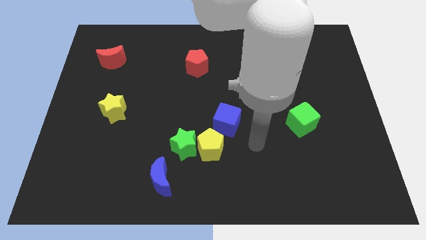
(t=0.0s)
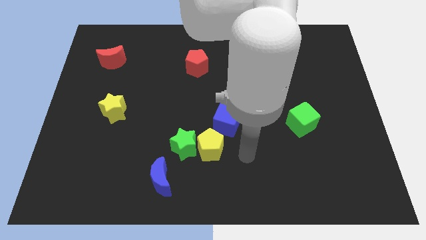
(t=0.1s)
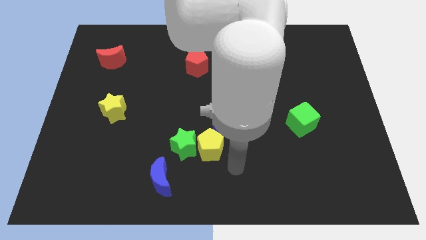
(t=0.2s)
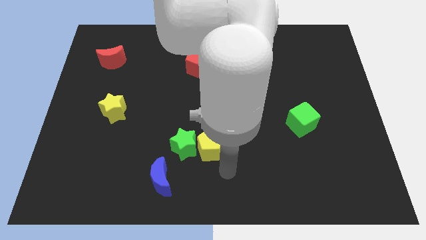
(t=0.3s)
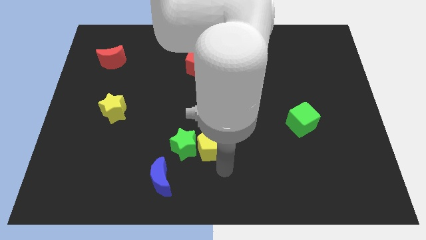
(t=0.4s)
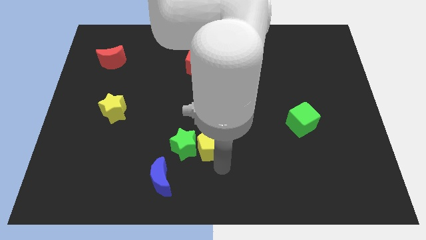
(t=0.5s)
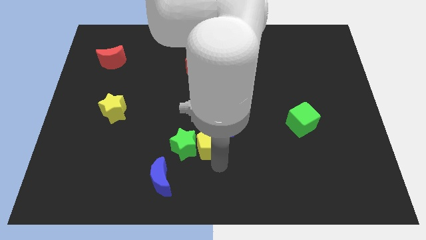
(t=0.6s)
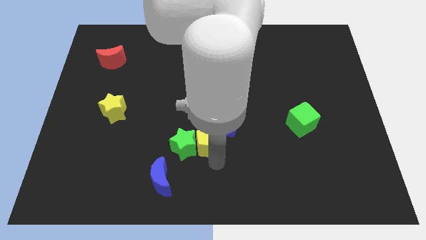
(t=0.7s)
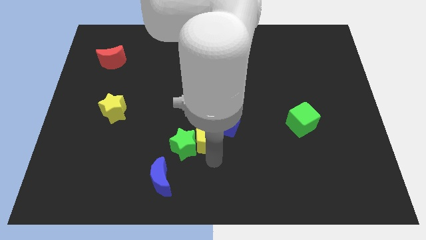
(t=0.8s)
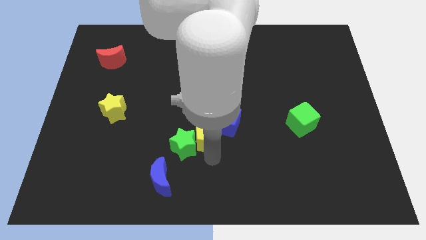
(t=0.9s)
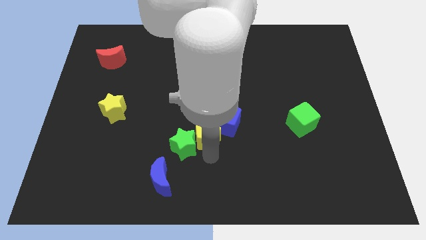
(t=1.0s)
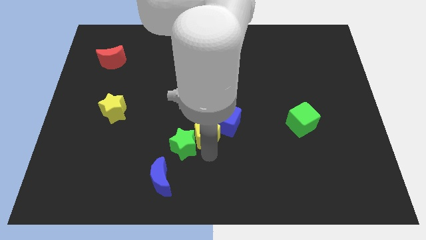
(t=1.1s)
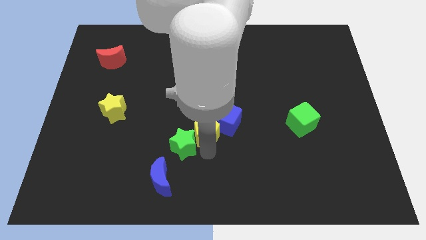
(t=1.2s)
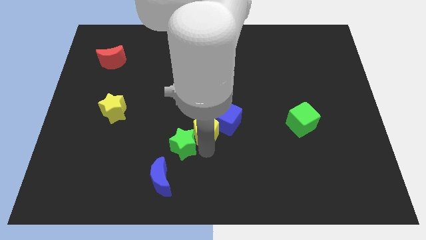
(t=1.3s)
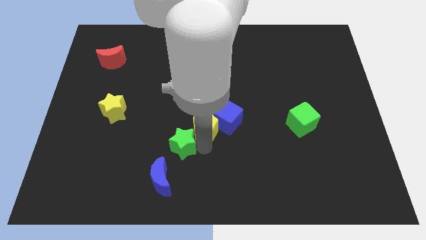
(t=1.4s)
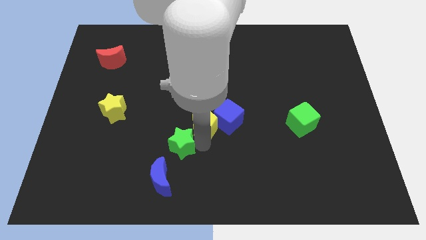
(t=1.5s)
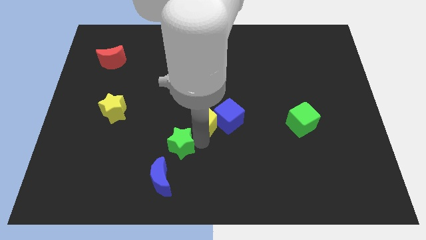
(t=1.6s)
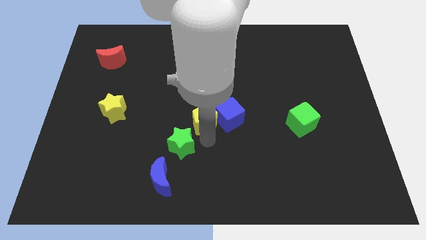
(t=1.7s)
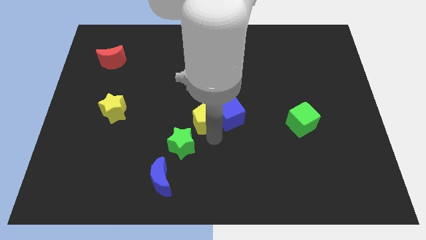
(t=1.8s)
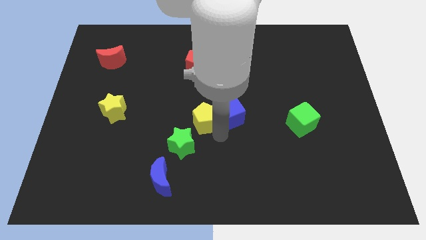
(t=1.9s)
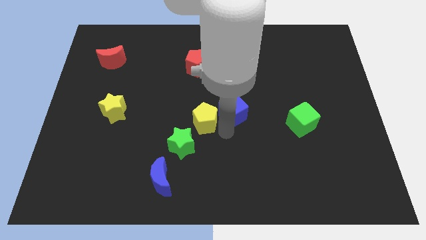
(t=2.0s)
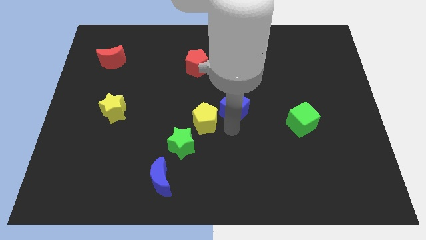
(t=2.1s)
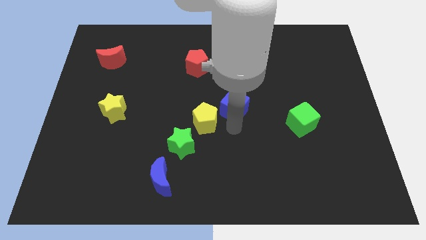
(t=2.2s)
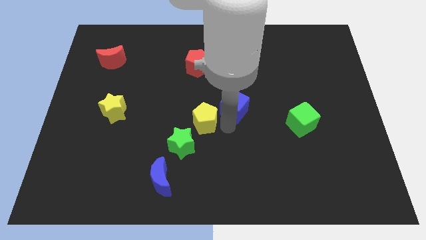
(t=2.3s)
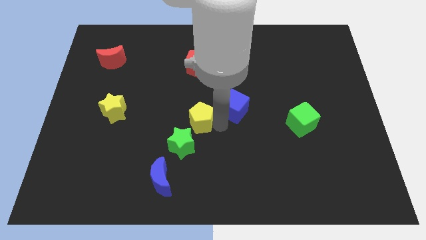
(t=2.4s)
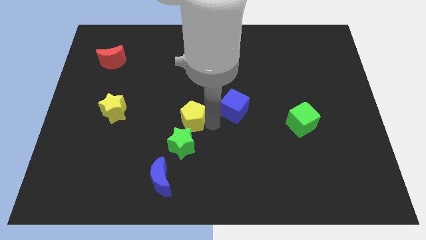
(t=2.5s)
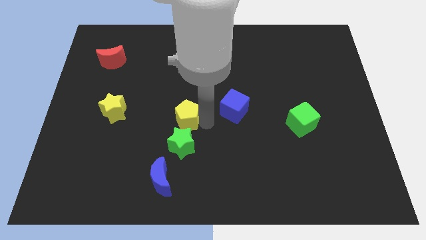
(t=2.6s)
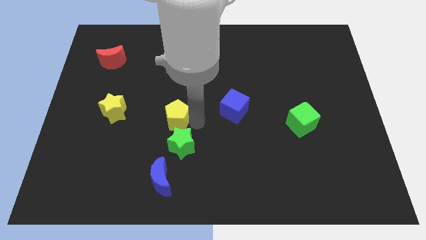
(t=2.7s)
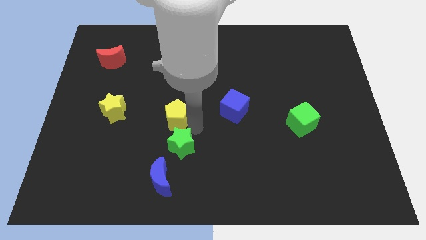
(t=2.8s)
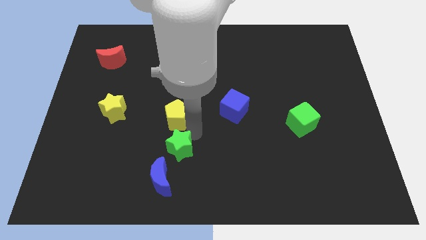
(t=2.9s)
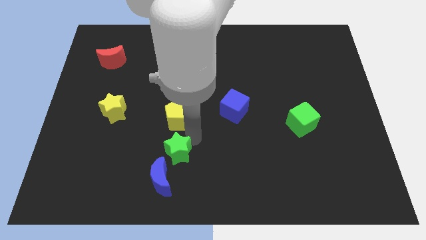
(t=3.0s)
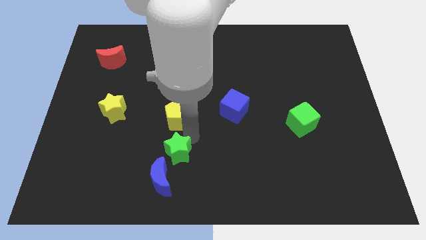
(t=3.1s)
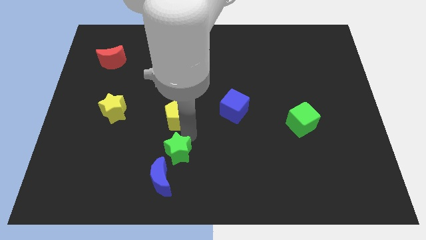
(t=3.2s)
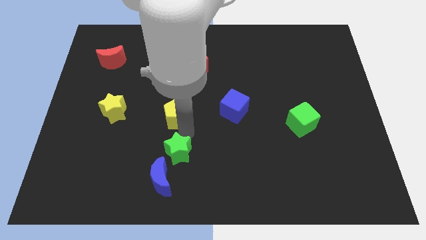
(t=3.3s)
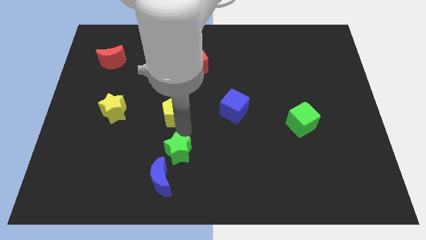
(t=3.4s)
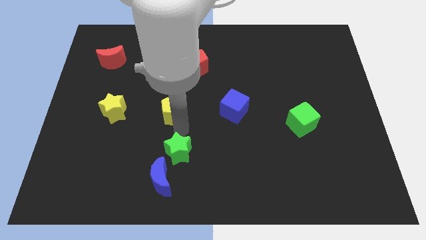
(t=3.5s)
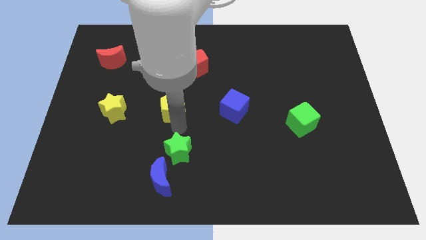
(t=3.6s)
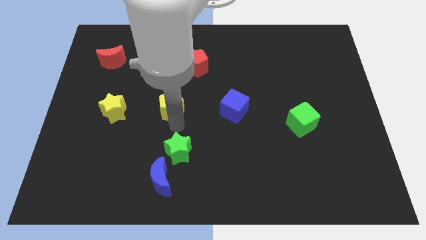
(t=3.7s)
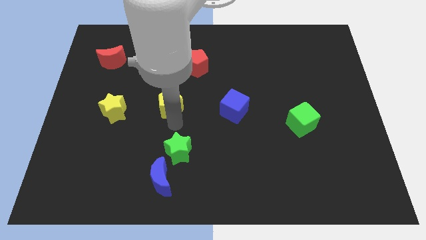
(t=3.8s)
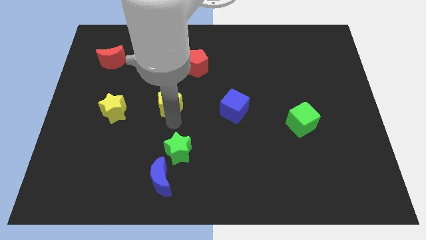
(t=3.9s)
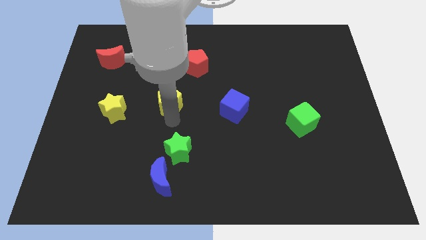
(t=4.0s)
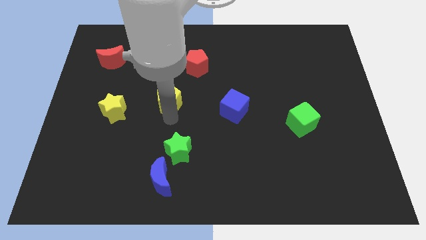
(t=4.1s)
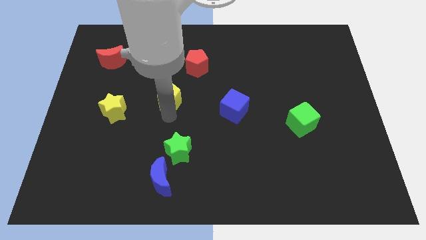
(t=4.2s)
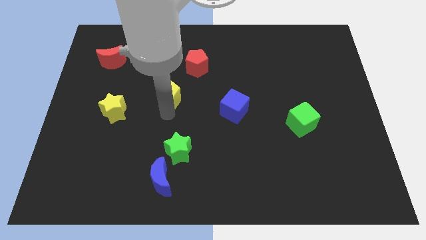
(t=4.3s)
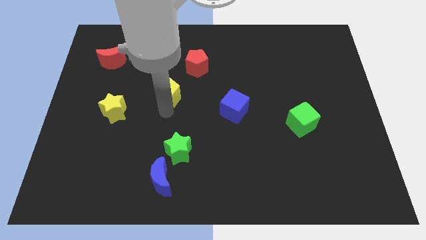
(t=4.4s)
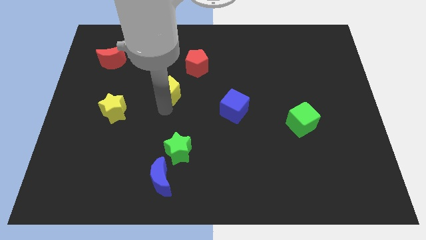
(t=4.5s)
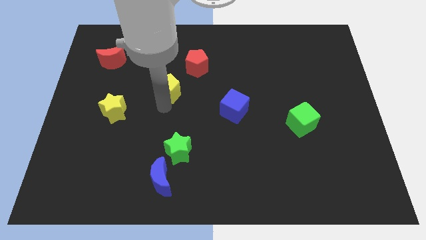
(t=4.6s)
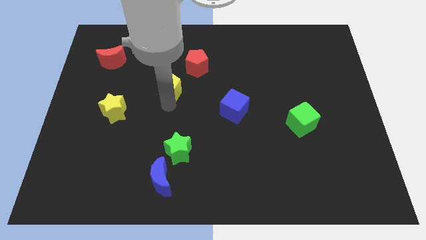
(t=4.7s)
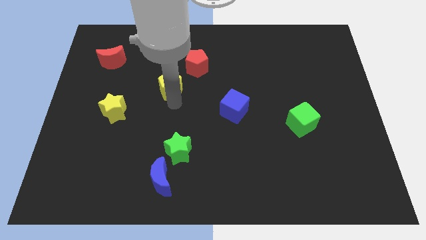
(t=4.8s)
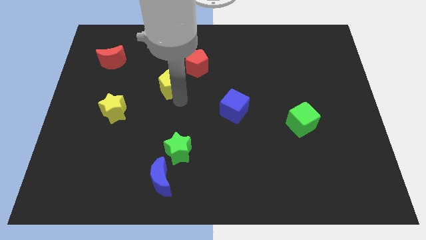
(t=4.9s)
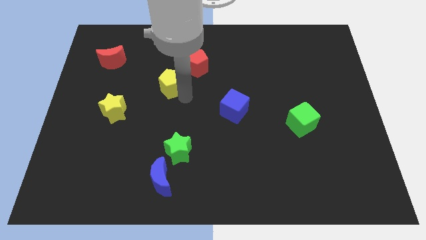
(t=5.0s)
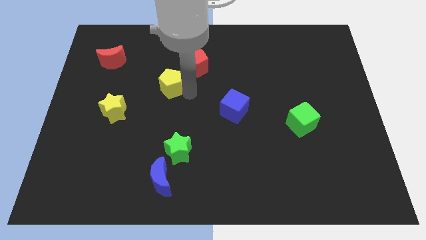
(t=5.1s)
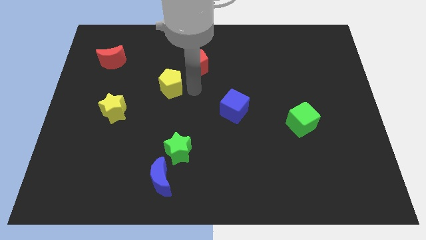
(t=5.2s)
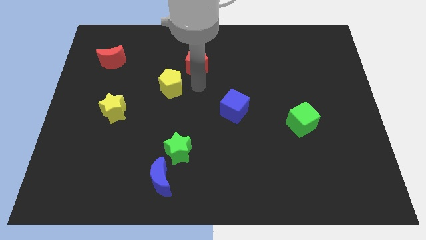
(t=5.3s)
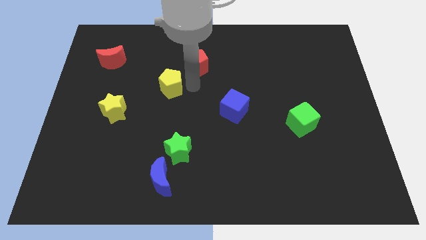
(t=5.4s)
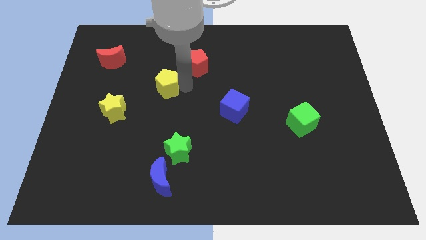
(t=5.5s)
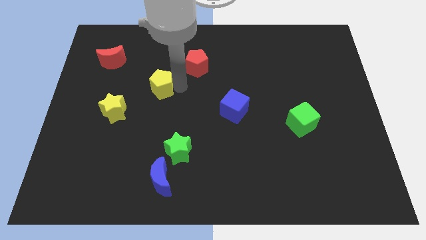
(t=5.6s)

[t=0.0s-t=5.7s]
move the yellow pentagon up and left

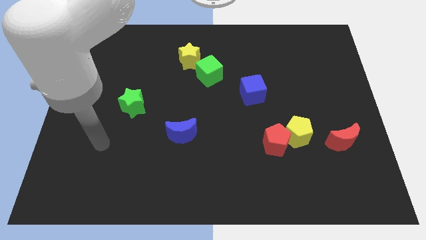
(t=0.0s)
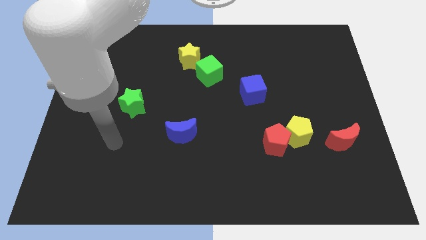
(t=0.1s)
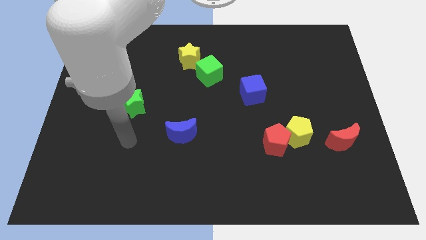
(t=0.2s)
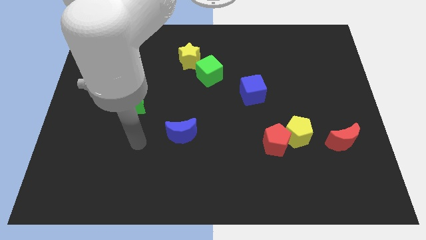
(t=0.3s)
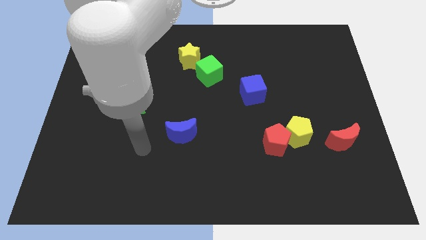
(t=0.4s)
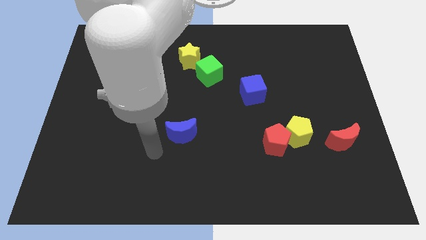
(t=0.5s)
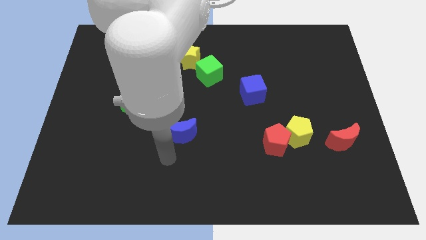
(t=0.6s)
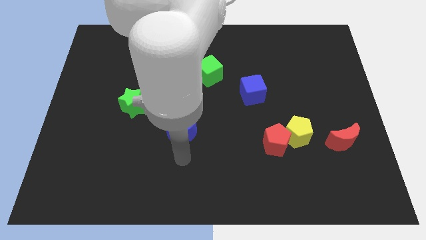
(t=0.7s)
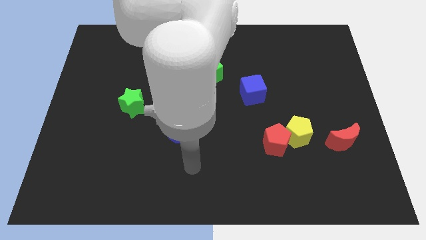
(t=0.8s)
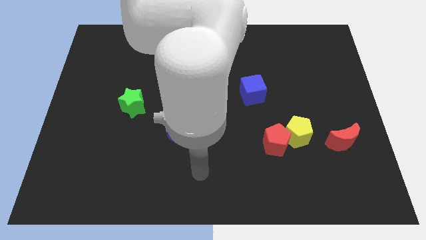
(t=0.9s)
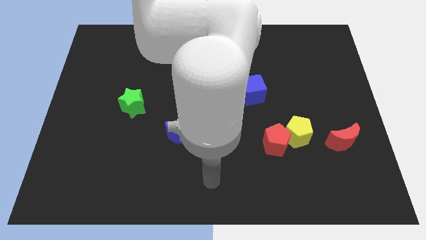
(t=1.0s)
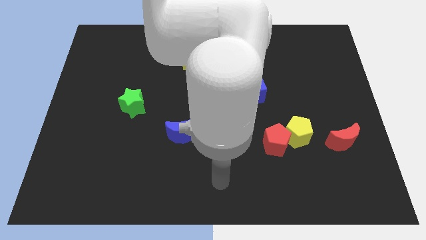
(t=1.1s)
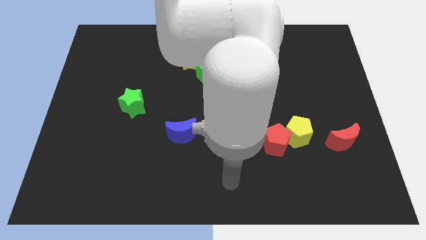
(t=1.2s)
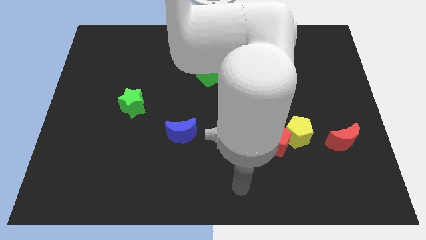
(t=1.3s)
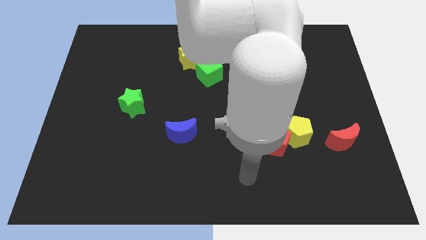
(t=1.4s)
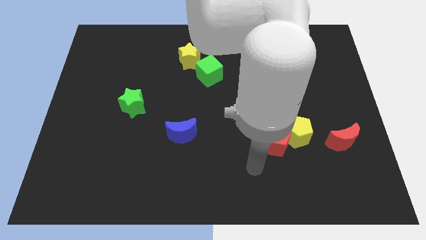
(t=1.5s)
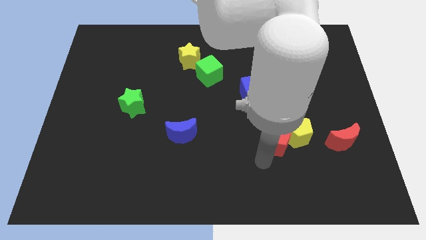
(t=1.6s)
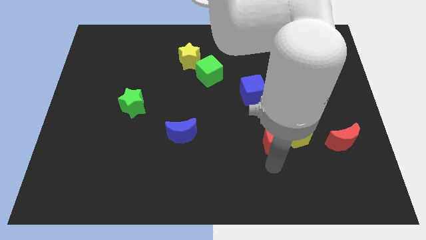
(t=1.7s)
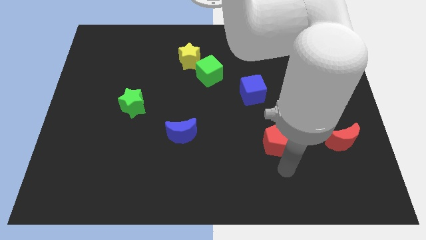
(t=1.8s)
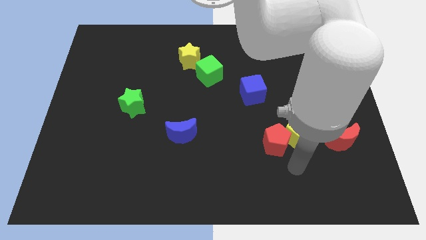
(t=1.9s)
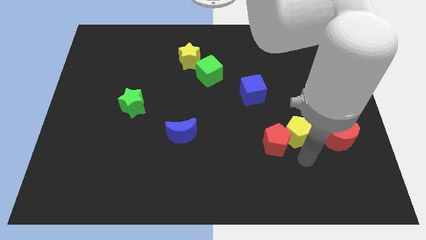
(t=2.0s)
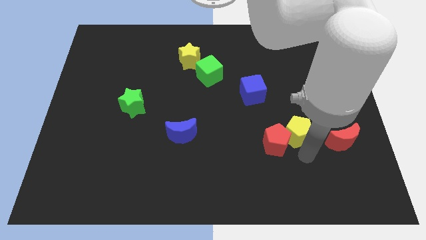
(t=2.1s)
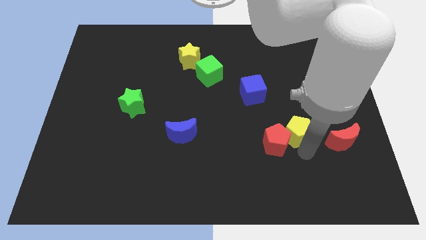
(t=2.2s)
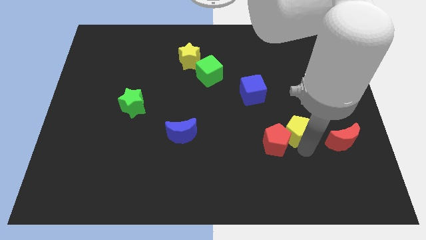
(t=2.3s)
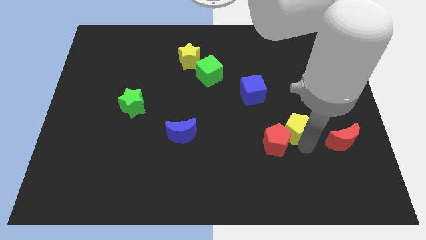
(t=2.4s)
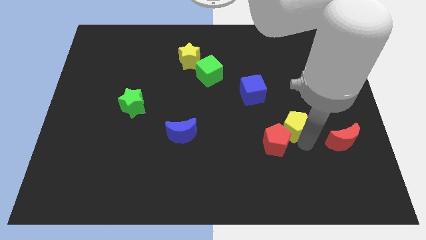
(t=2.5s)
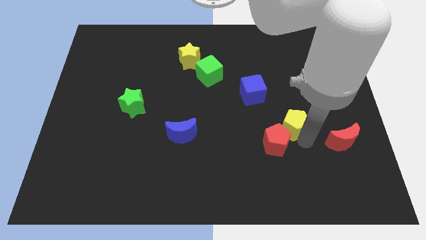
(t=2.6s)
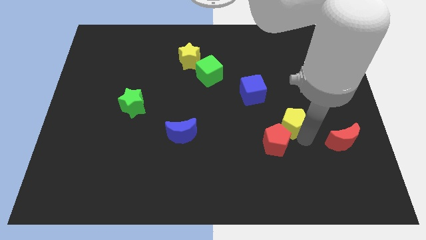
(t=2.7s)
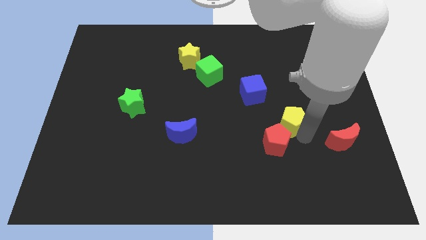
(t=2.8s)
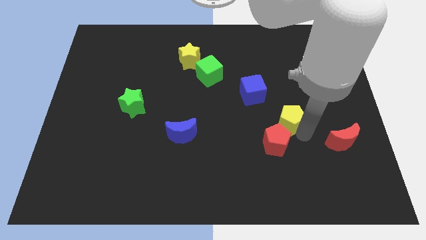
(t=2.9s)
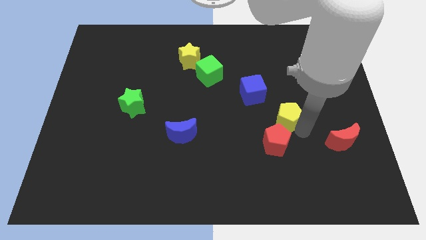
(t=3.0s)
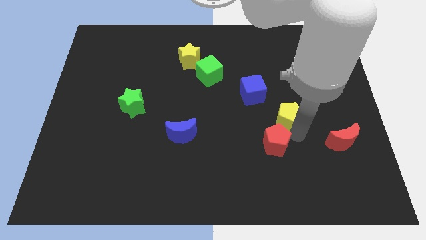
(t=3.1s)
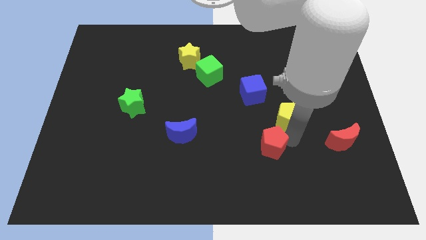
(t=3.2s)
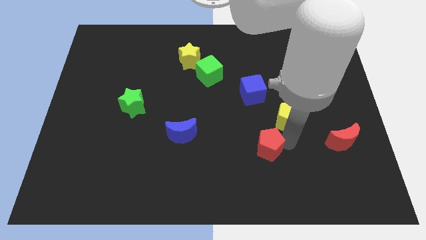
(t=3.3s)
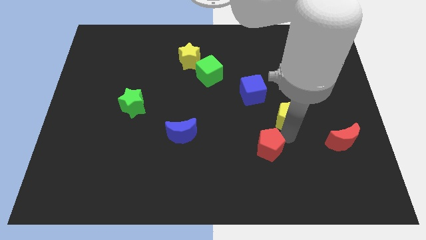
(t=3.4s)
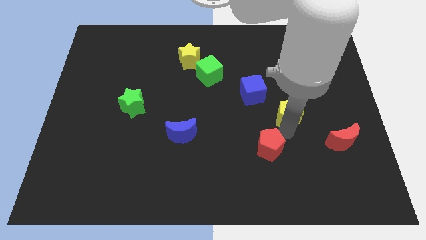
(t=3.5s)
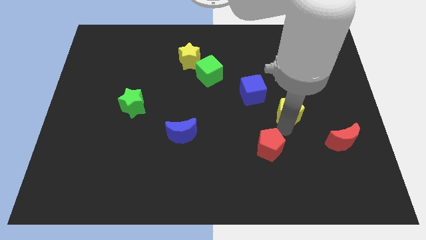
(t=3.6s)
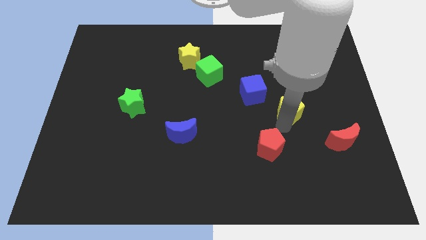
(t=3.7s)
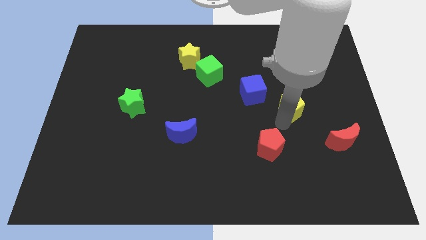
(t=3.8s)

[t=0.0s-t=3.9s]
slightly push the yellow pentagon upwards
